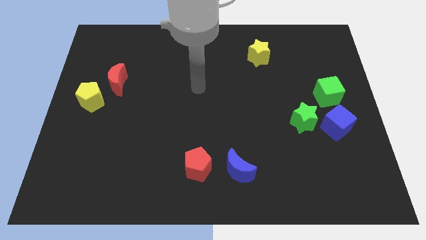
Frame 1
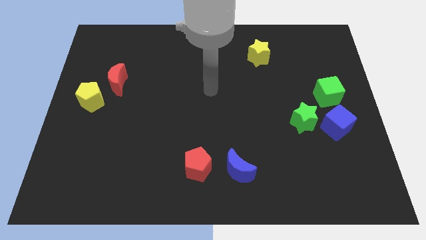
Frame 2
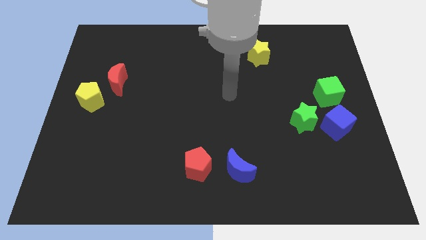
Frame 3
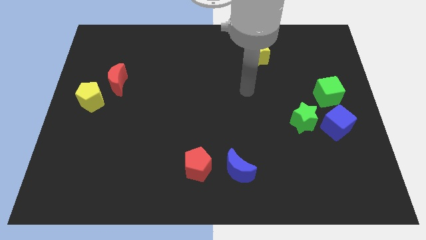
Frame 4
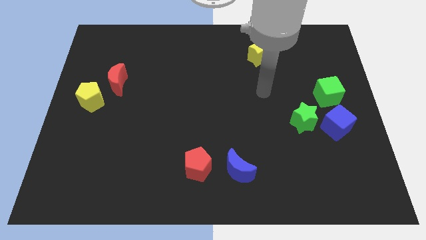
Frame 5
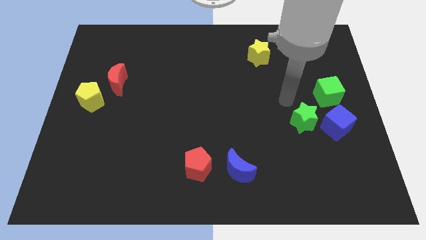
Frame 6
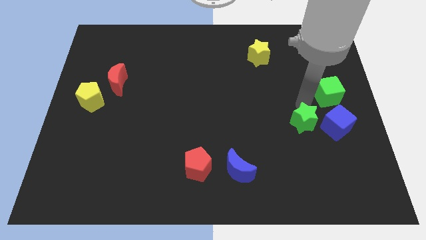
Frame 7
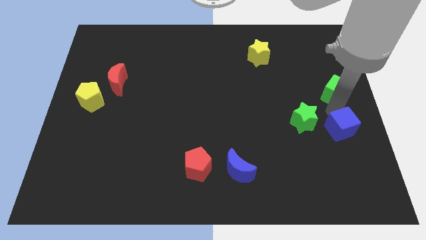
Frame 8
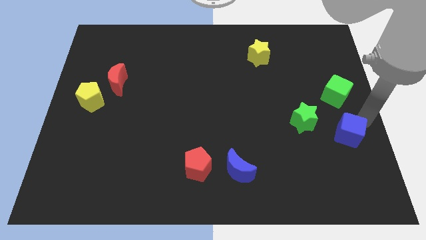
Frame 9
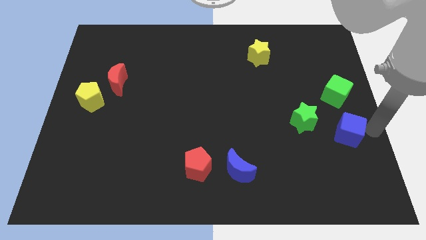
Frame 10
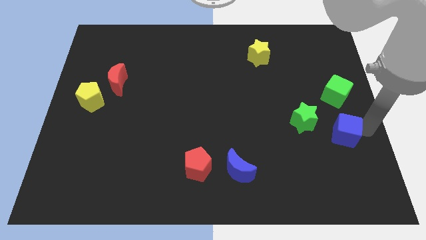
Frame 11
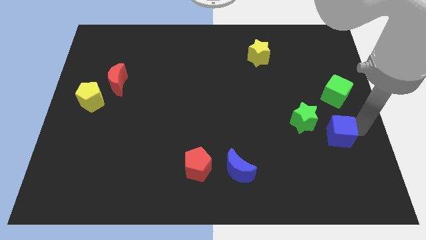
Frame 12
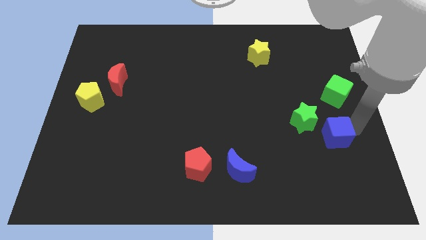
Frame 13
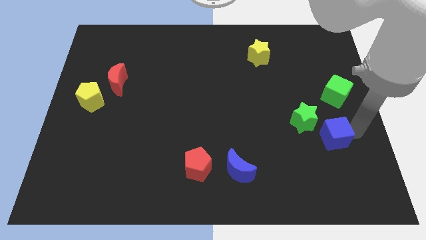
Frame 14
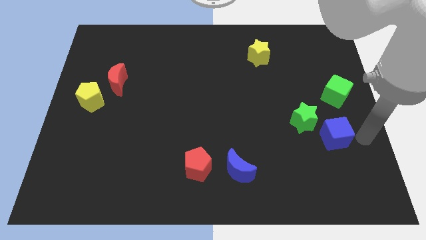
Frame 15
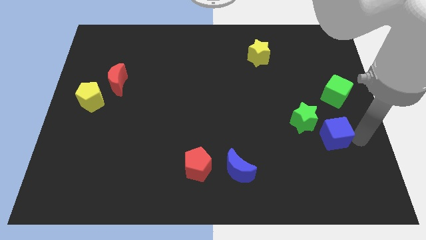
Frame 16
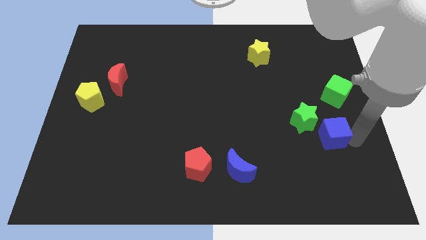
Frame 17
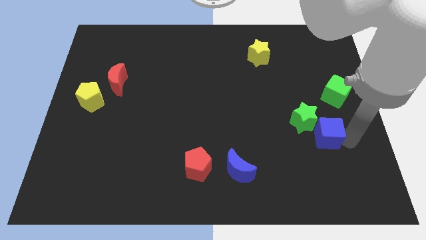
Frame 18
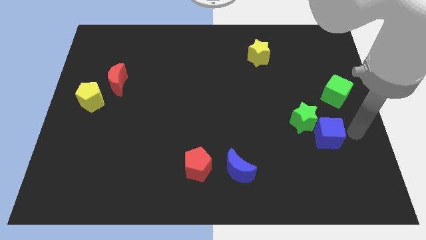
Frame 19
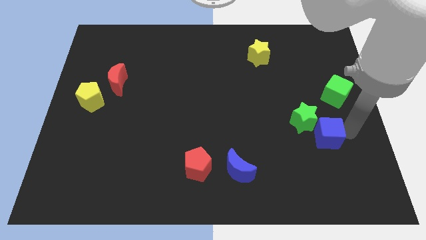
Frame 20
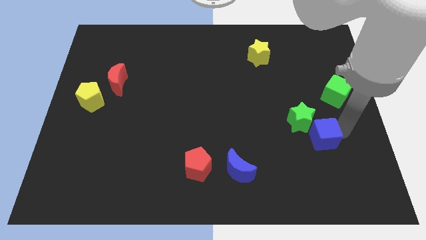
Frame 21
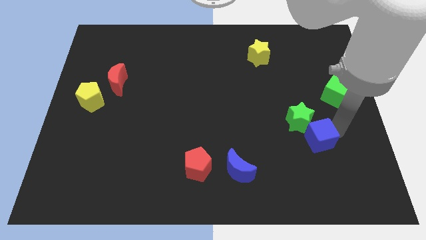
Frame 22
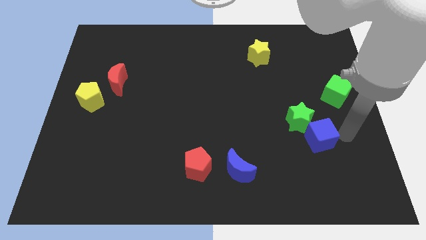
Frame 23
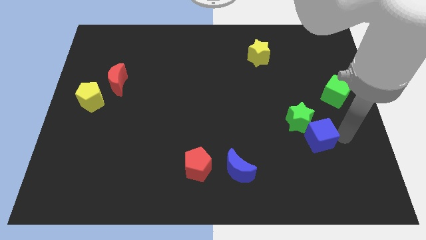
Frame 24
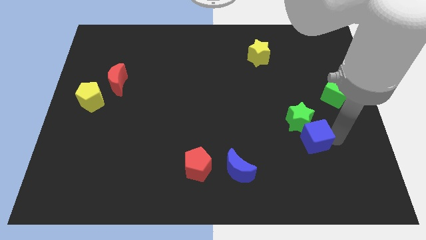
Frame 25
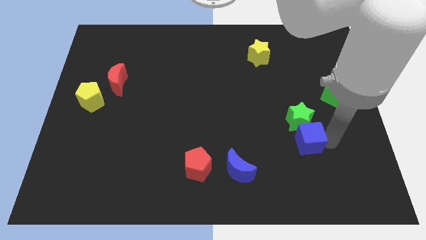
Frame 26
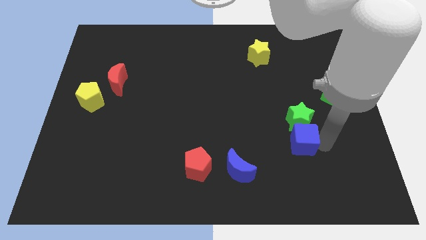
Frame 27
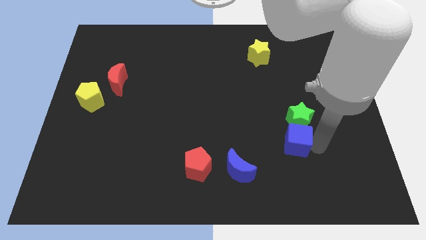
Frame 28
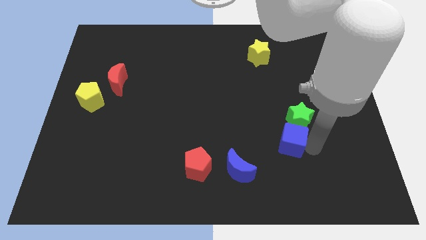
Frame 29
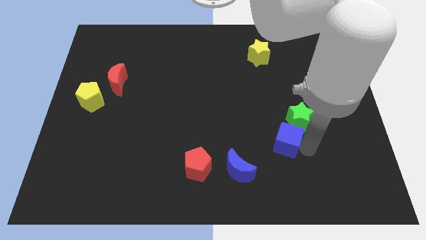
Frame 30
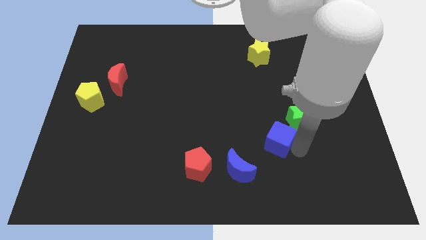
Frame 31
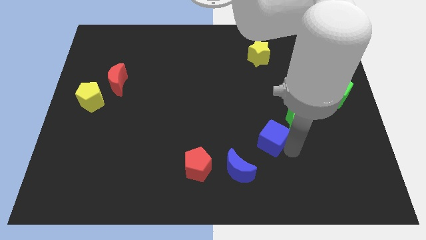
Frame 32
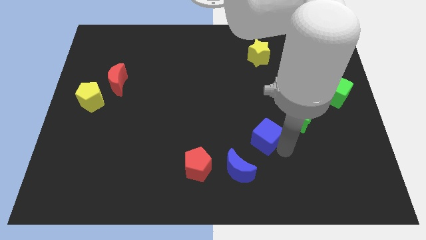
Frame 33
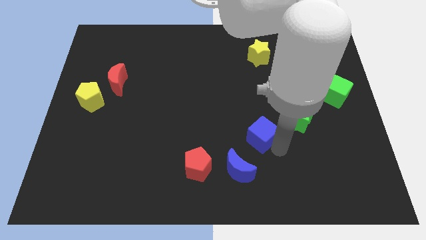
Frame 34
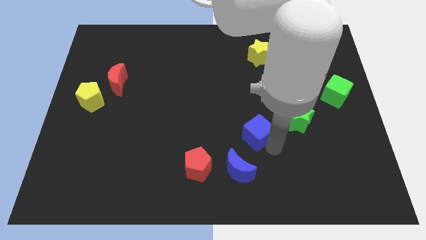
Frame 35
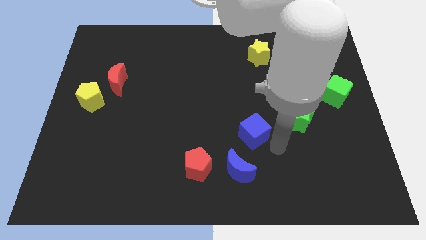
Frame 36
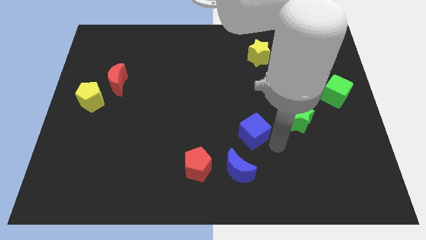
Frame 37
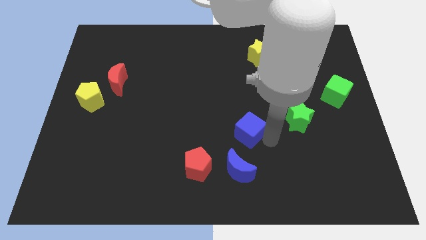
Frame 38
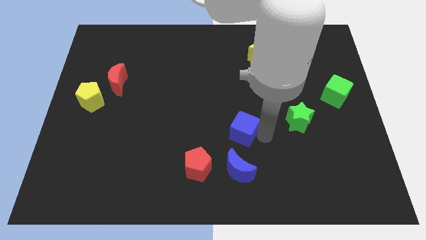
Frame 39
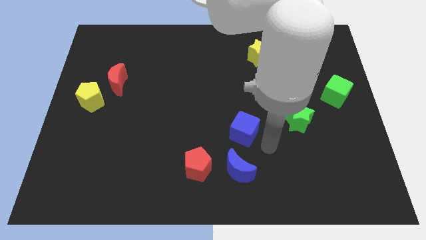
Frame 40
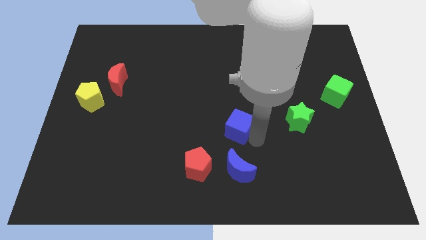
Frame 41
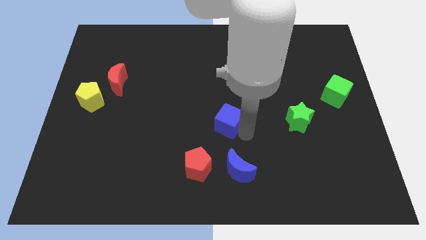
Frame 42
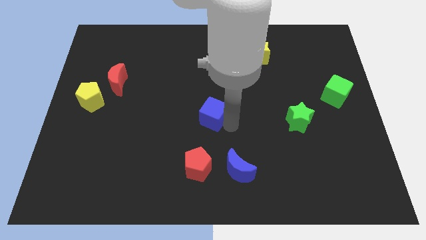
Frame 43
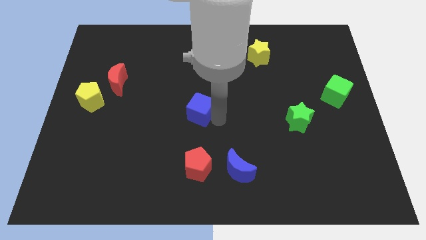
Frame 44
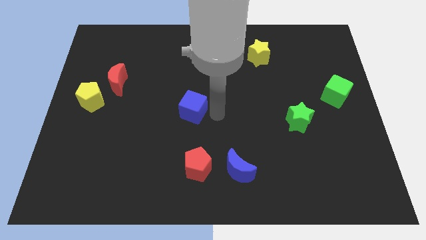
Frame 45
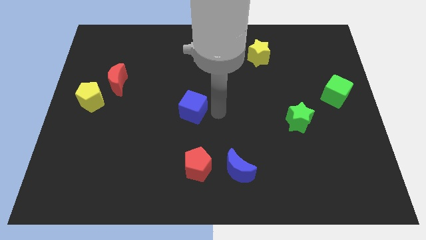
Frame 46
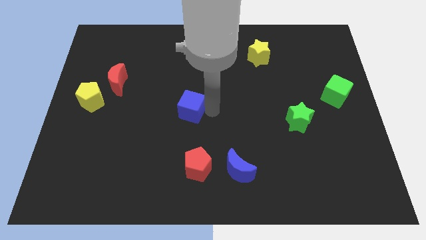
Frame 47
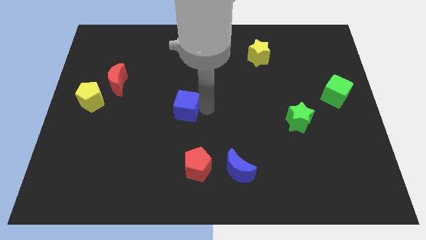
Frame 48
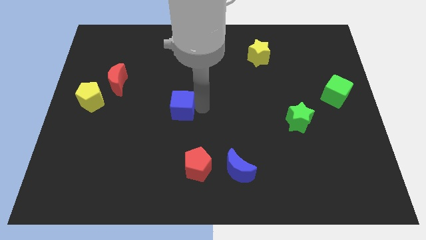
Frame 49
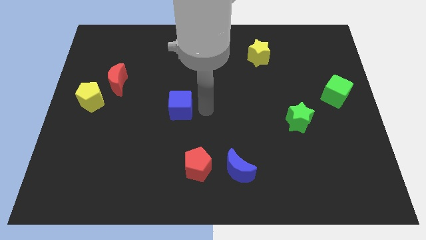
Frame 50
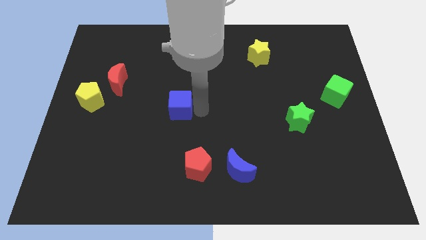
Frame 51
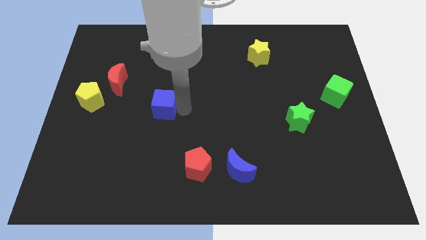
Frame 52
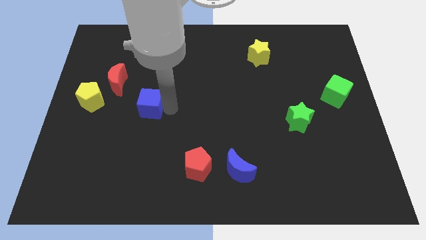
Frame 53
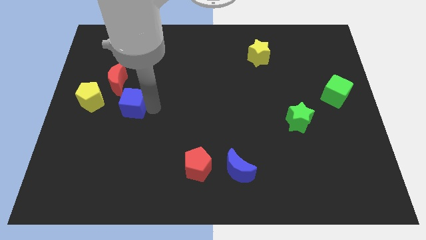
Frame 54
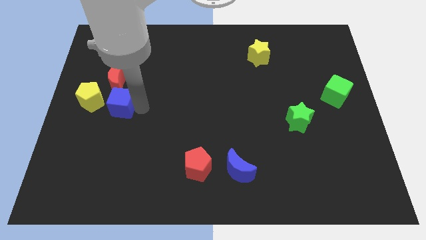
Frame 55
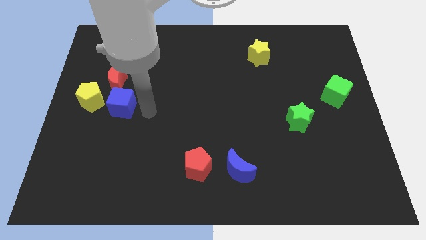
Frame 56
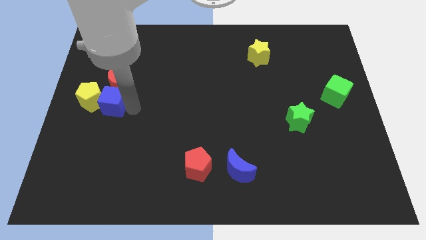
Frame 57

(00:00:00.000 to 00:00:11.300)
slide the blue cube next to the yellow pentagon

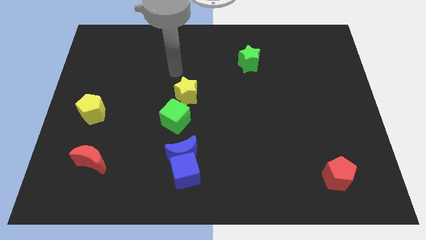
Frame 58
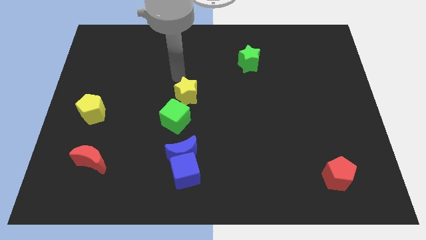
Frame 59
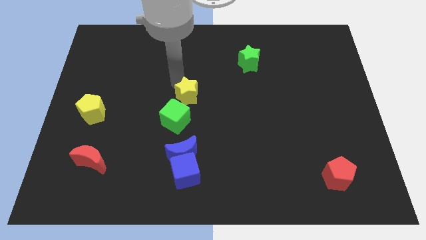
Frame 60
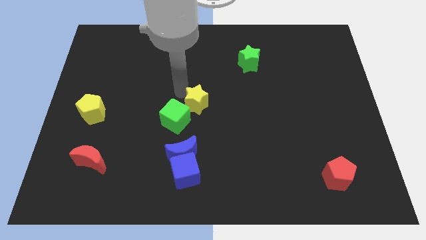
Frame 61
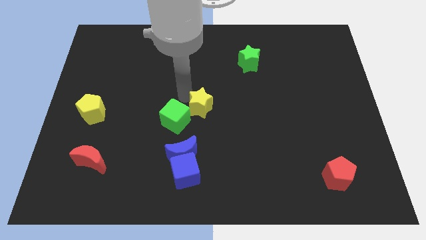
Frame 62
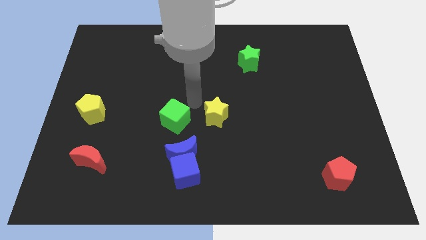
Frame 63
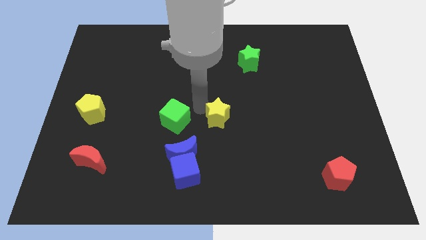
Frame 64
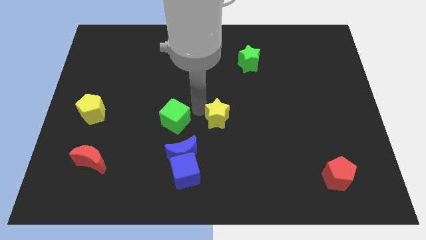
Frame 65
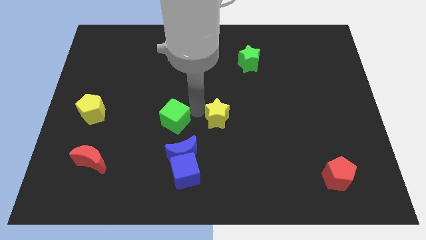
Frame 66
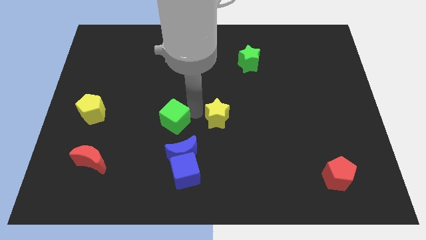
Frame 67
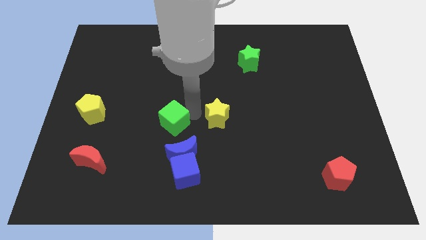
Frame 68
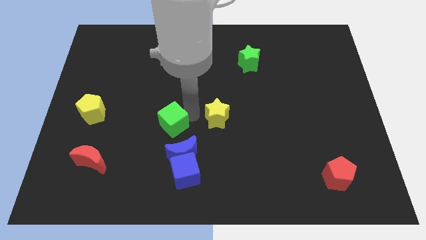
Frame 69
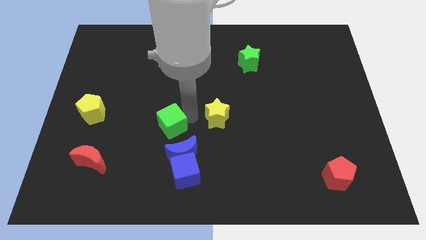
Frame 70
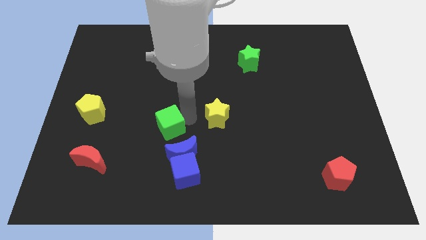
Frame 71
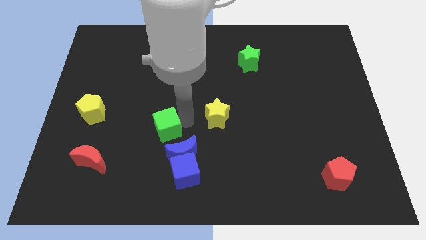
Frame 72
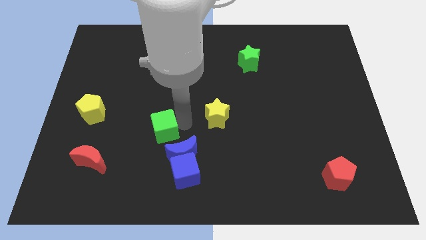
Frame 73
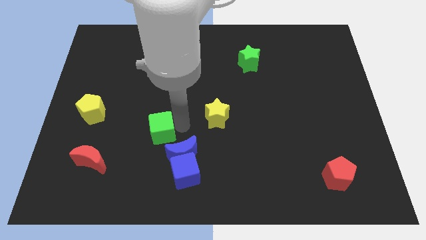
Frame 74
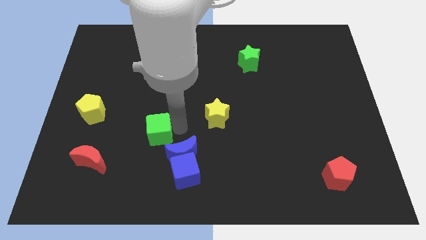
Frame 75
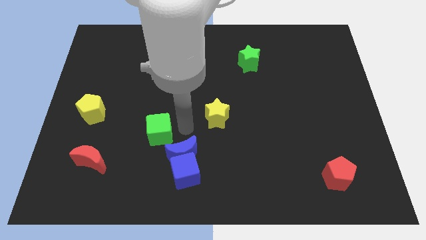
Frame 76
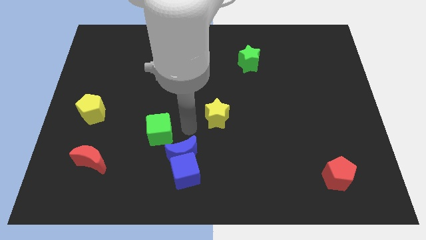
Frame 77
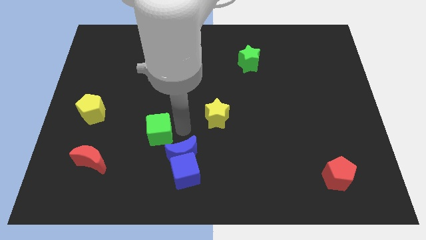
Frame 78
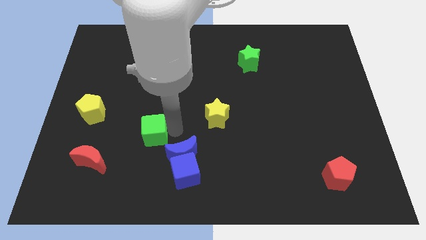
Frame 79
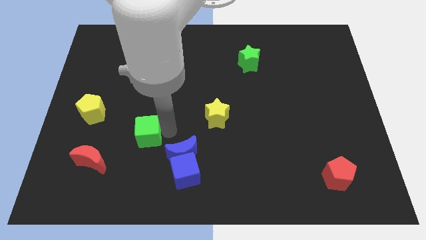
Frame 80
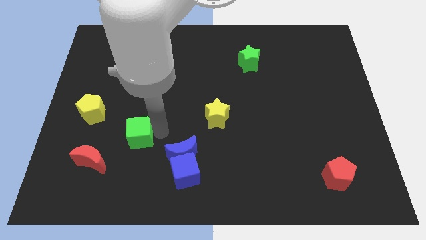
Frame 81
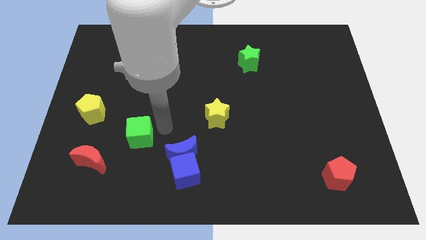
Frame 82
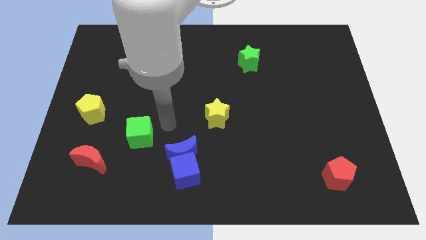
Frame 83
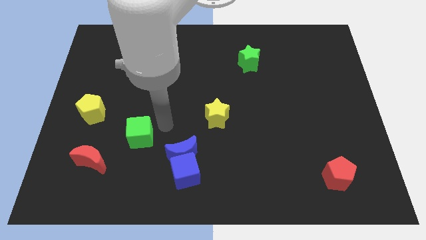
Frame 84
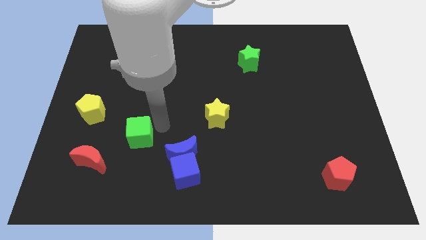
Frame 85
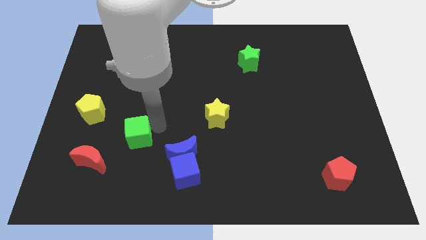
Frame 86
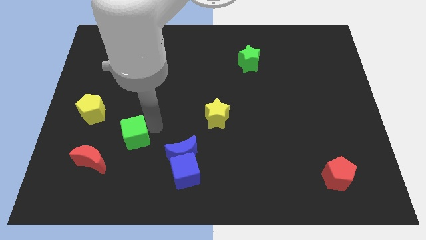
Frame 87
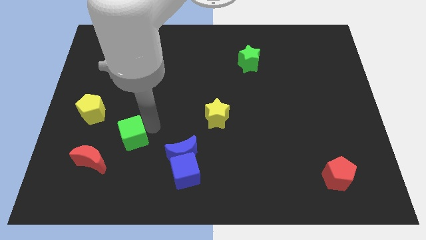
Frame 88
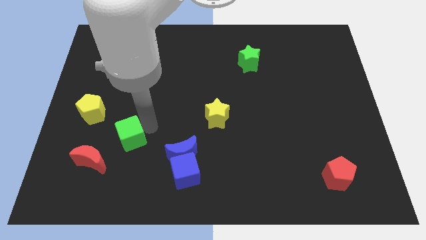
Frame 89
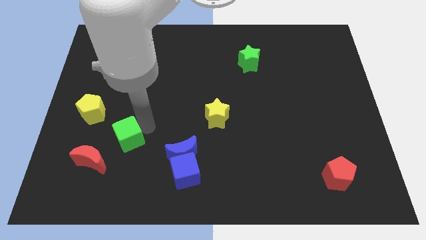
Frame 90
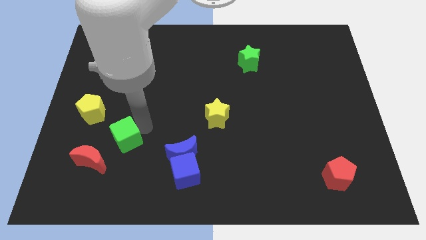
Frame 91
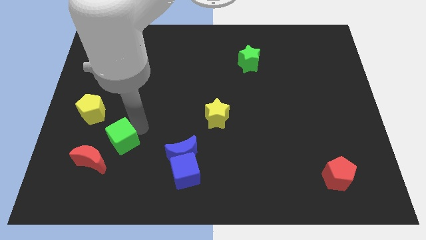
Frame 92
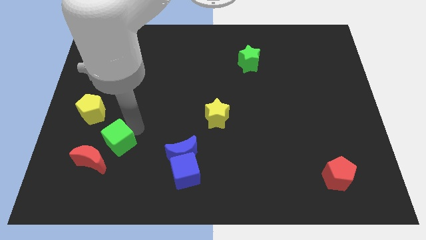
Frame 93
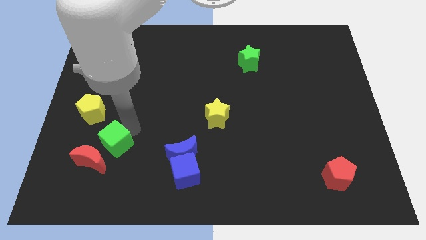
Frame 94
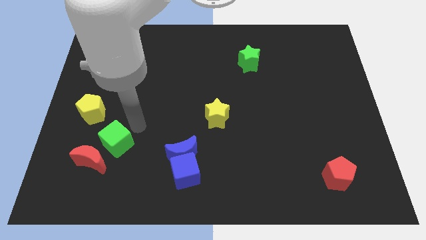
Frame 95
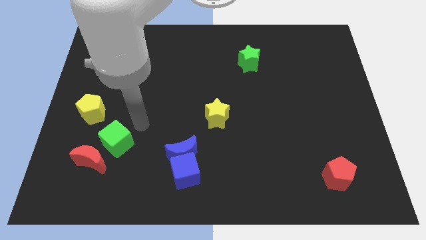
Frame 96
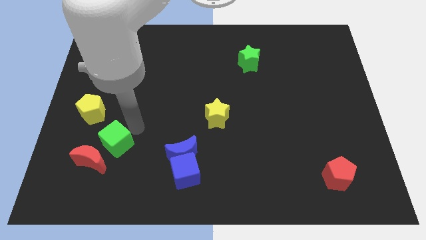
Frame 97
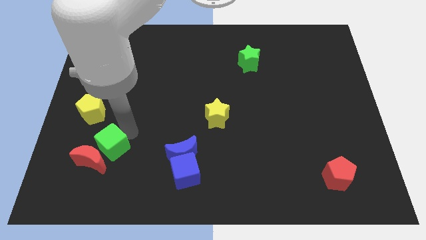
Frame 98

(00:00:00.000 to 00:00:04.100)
push the green cube towards the red moon
